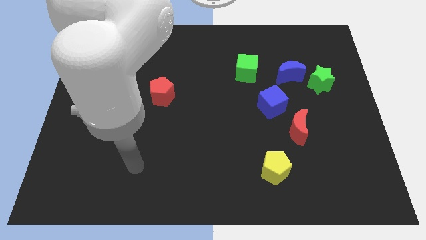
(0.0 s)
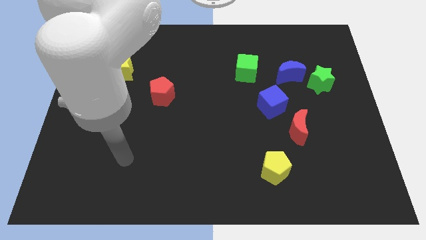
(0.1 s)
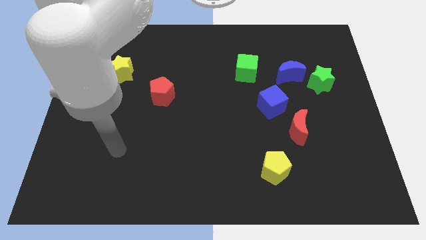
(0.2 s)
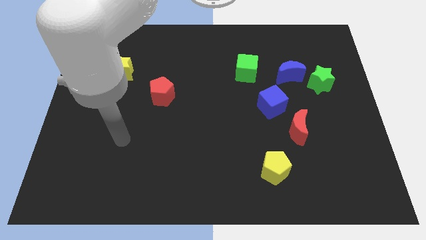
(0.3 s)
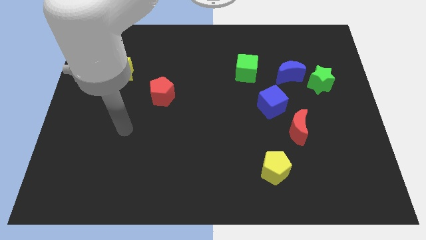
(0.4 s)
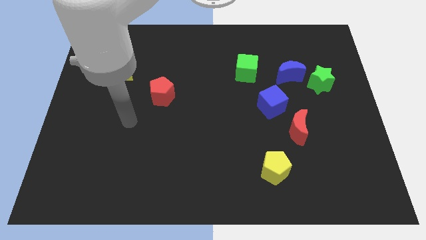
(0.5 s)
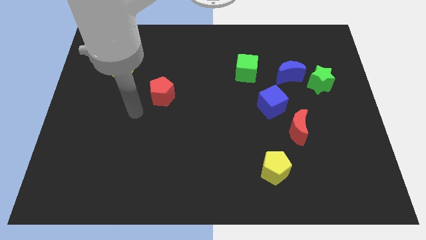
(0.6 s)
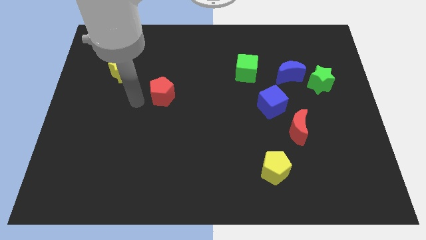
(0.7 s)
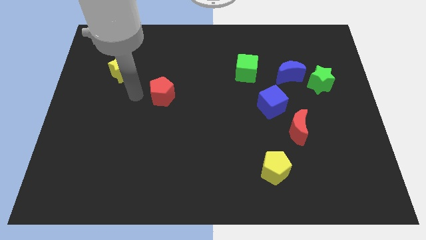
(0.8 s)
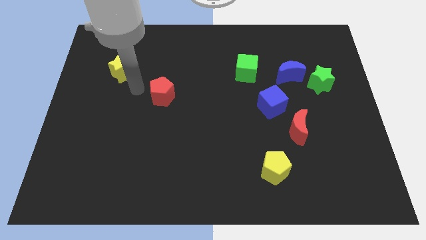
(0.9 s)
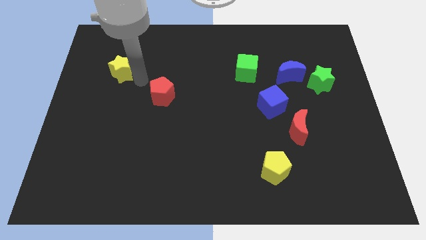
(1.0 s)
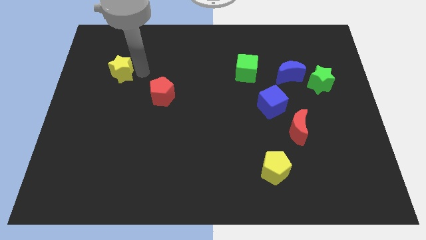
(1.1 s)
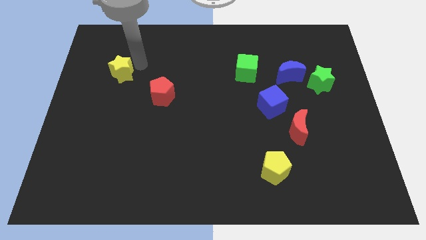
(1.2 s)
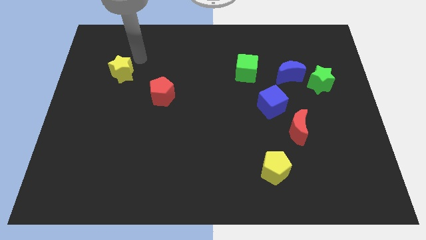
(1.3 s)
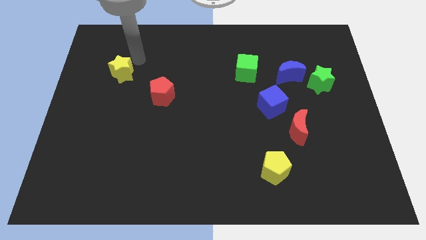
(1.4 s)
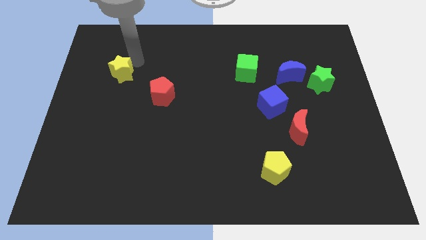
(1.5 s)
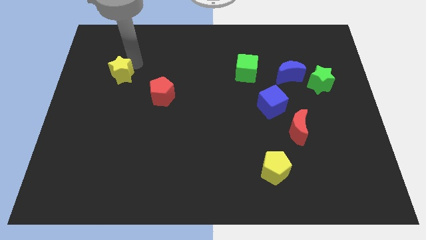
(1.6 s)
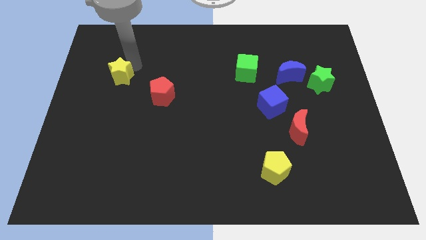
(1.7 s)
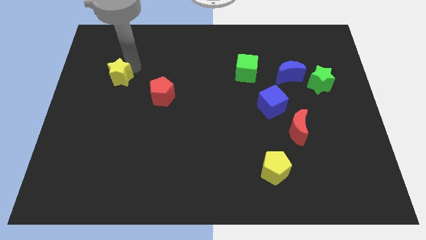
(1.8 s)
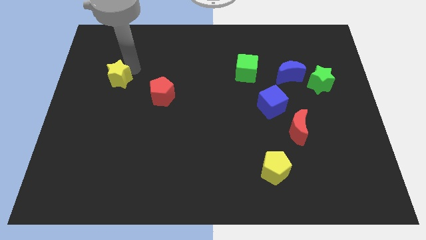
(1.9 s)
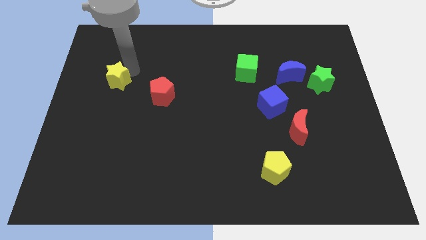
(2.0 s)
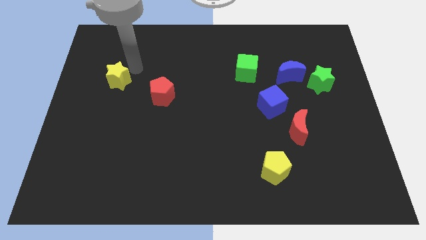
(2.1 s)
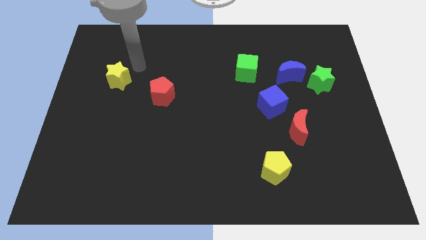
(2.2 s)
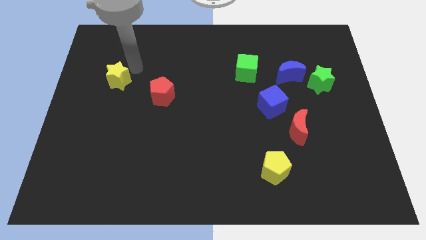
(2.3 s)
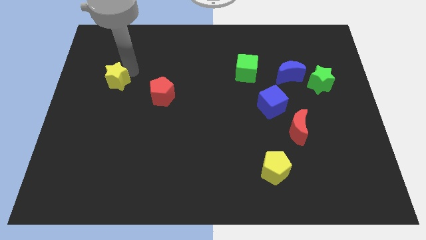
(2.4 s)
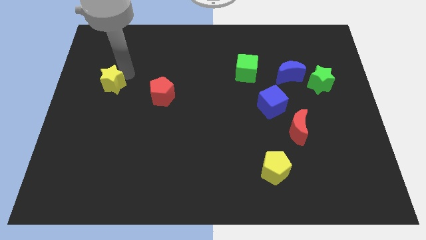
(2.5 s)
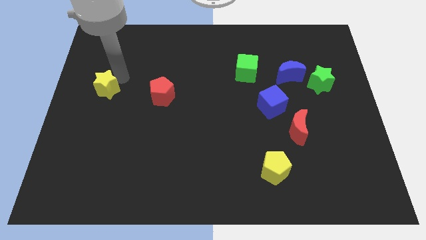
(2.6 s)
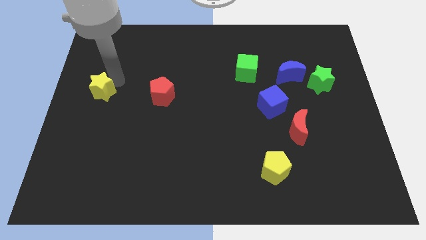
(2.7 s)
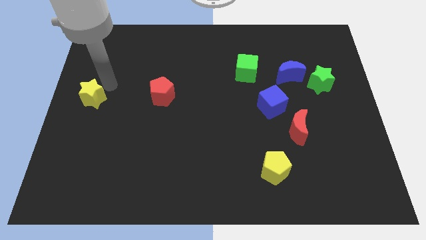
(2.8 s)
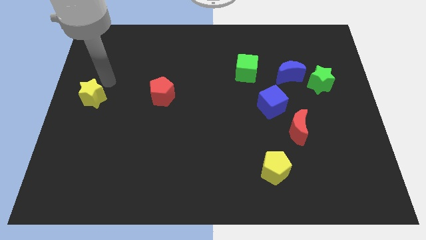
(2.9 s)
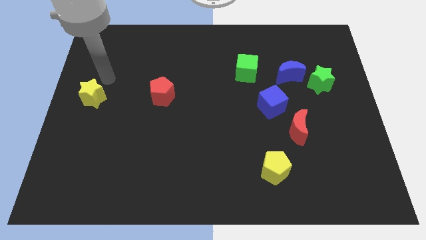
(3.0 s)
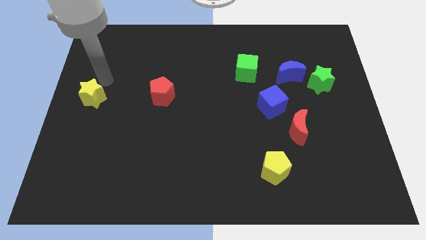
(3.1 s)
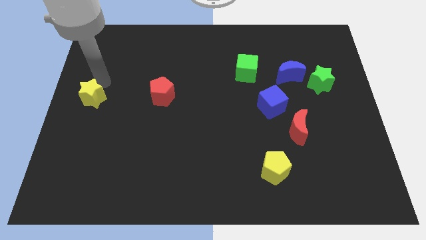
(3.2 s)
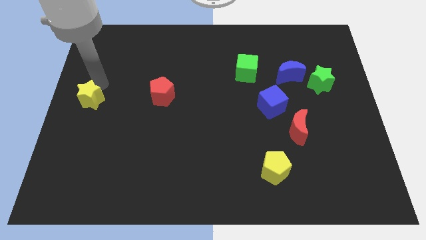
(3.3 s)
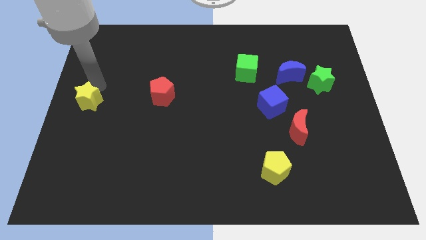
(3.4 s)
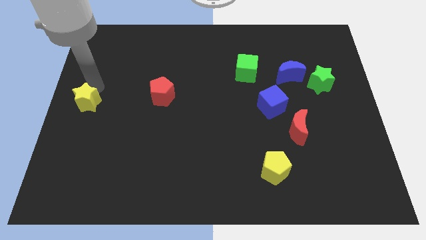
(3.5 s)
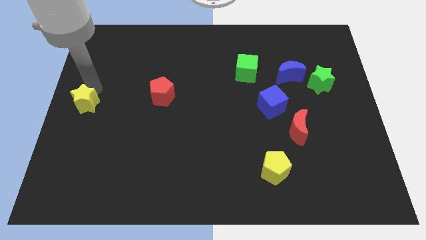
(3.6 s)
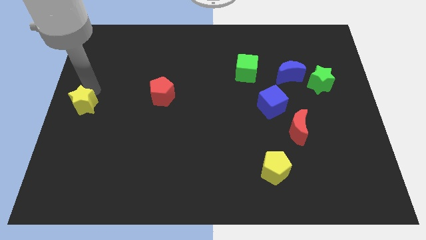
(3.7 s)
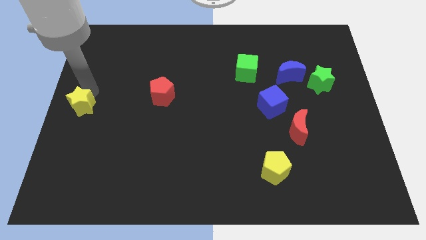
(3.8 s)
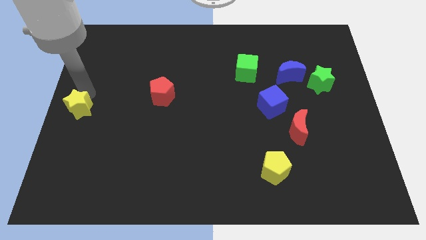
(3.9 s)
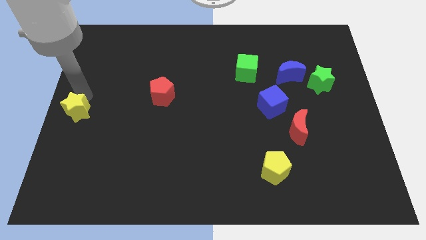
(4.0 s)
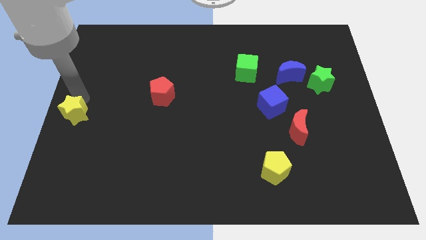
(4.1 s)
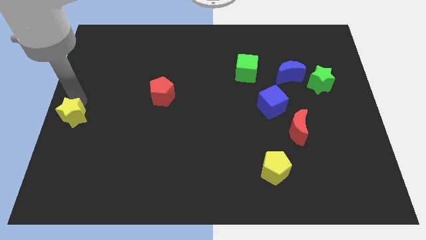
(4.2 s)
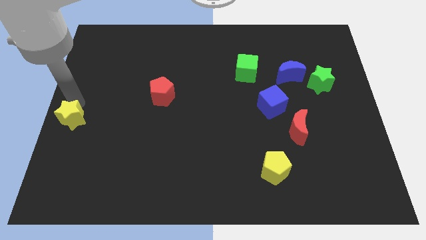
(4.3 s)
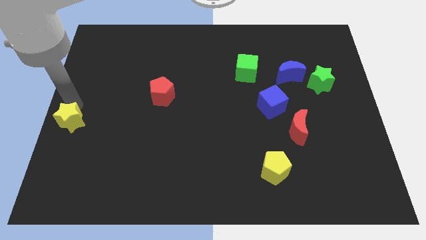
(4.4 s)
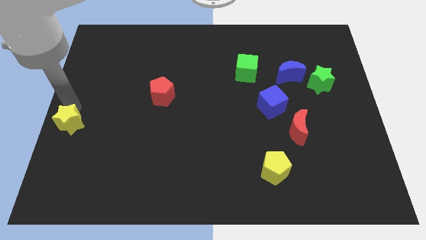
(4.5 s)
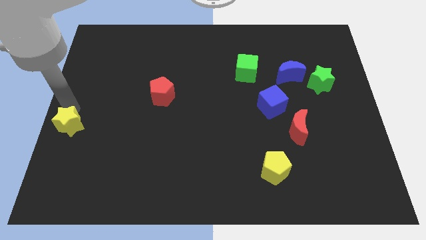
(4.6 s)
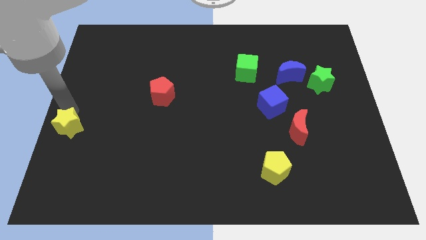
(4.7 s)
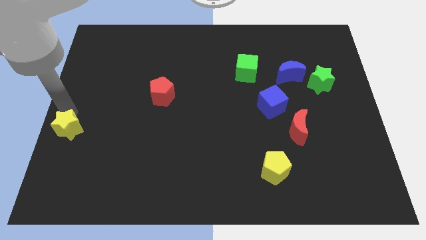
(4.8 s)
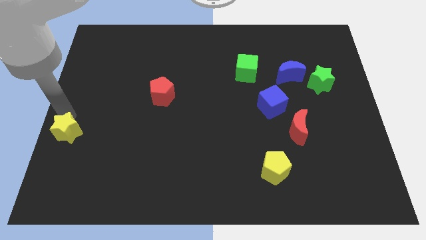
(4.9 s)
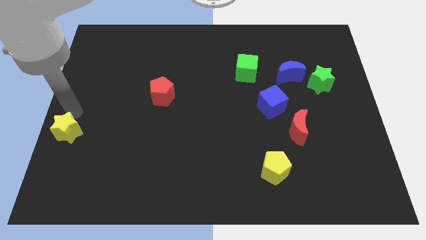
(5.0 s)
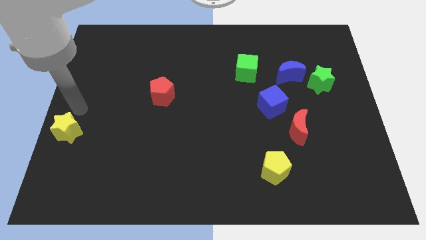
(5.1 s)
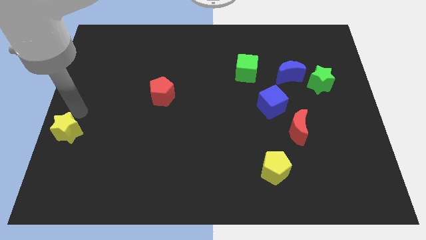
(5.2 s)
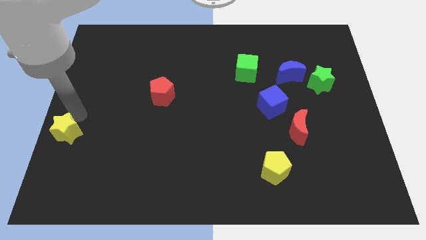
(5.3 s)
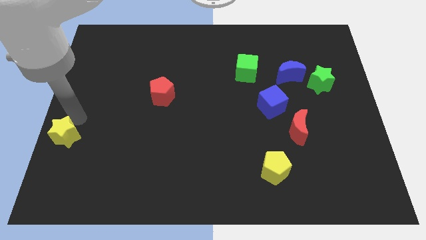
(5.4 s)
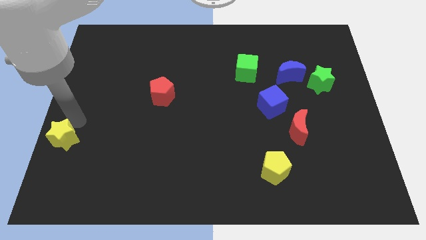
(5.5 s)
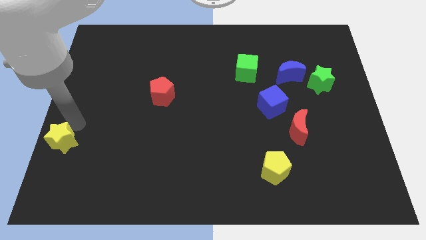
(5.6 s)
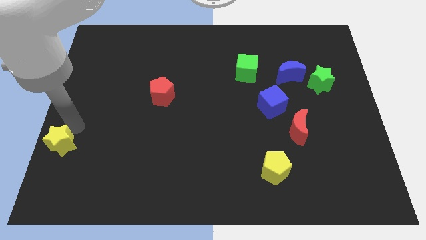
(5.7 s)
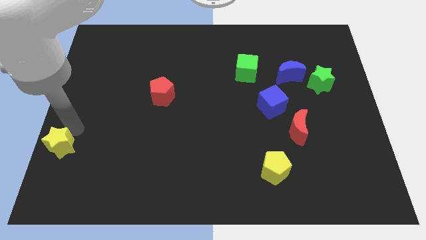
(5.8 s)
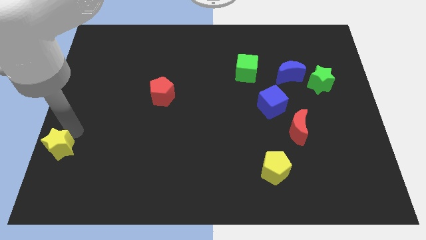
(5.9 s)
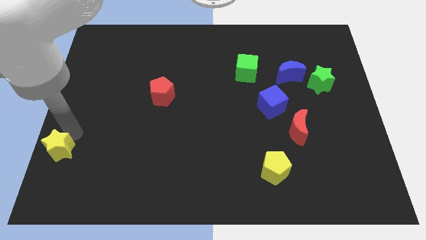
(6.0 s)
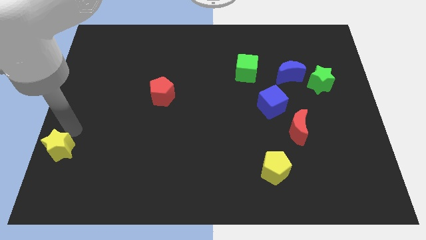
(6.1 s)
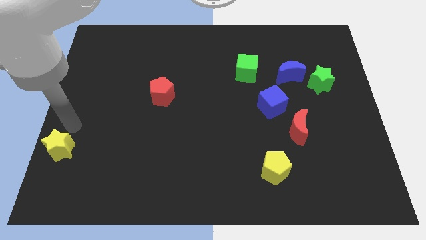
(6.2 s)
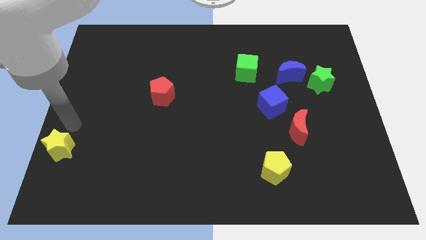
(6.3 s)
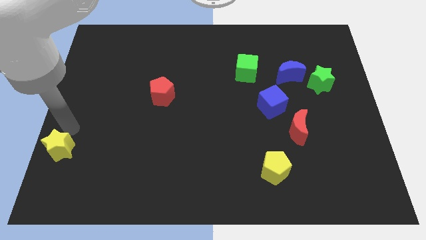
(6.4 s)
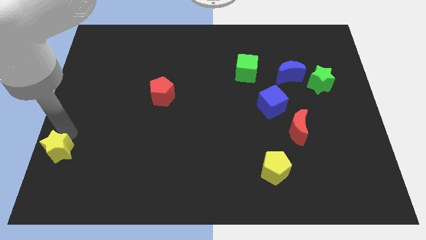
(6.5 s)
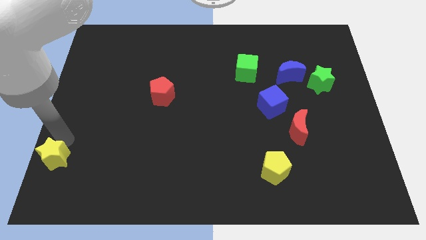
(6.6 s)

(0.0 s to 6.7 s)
slide the yellow star to the bottom left
